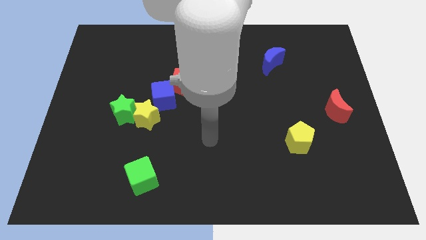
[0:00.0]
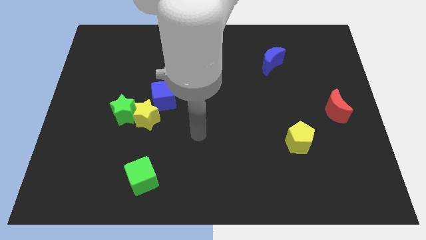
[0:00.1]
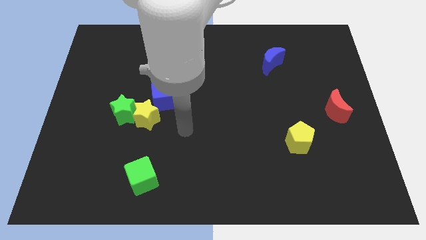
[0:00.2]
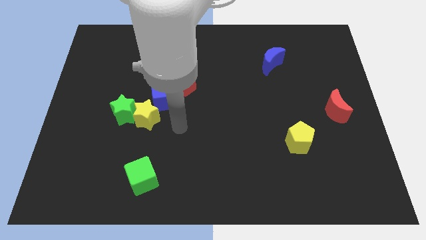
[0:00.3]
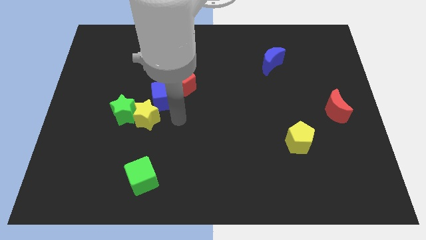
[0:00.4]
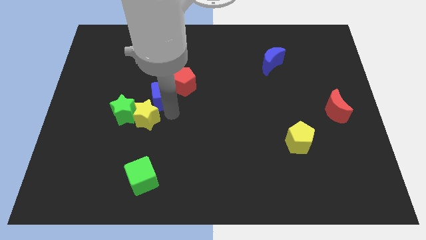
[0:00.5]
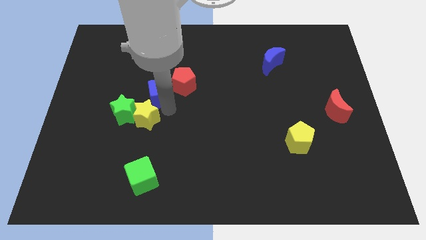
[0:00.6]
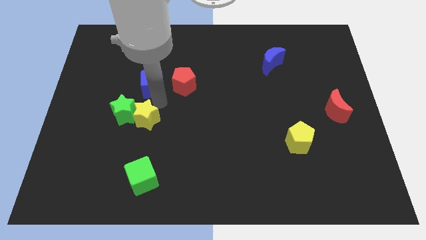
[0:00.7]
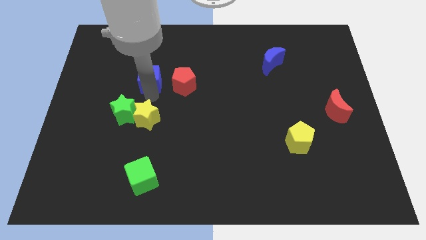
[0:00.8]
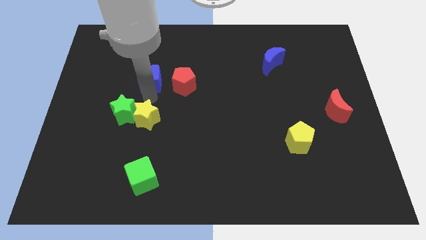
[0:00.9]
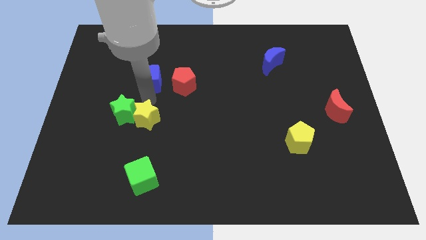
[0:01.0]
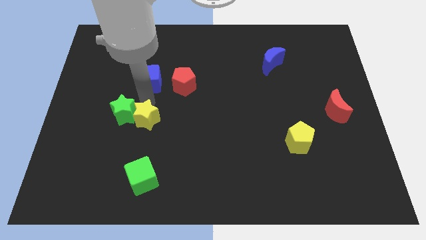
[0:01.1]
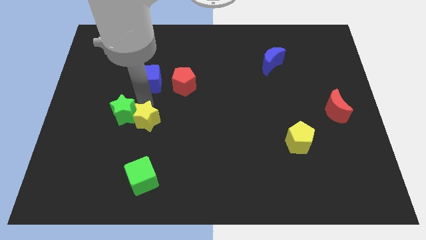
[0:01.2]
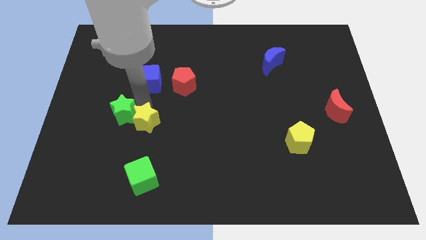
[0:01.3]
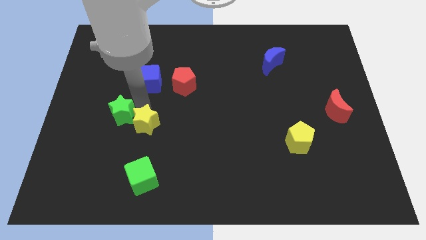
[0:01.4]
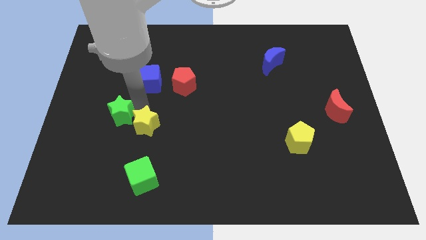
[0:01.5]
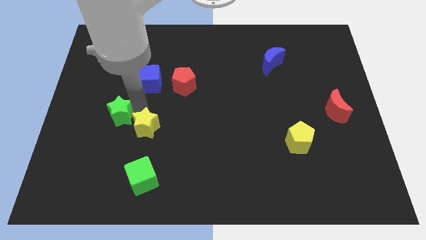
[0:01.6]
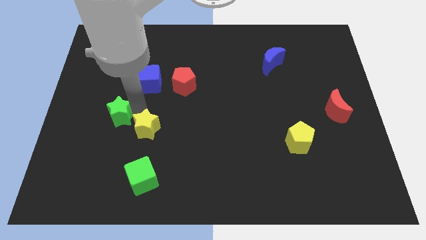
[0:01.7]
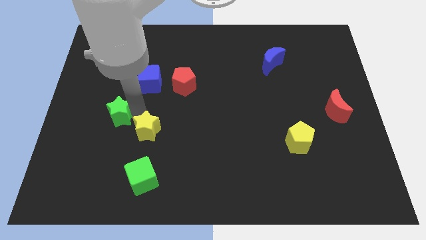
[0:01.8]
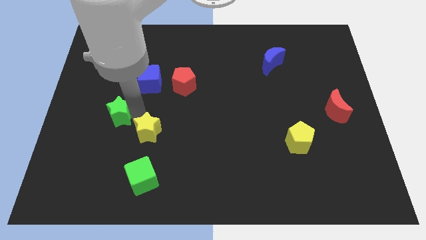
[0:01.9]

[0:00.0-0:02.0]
pull the yellow star apart from the green star and blue cube

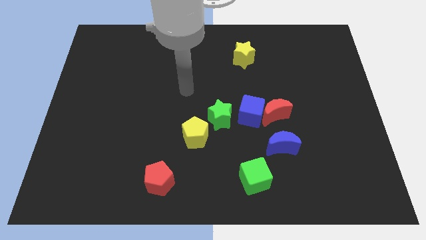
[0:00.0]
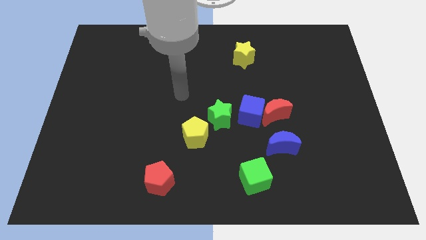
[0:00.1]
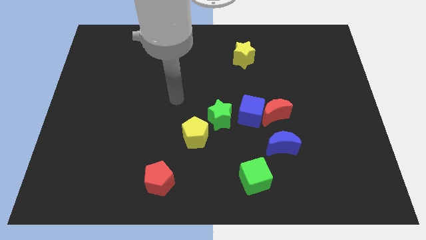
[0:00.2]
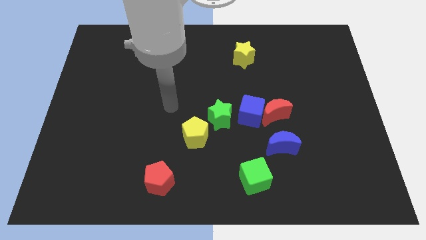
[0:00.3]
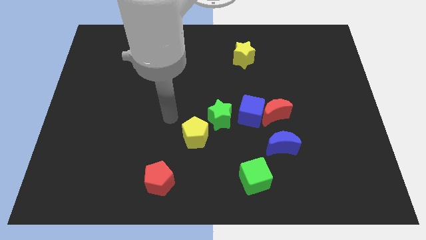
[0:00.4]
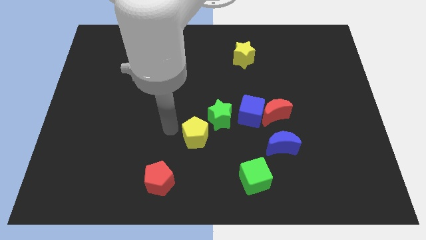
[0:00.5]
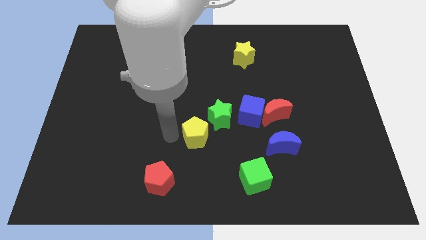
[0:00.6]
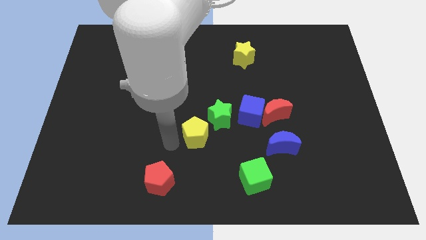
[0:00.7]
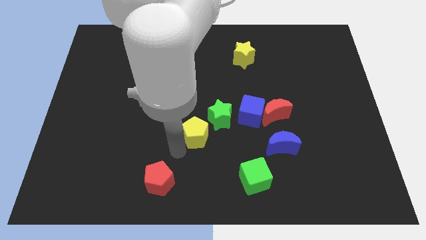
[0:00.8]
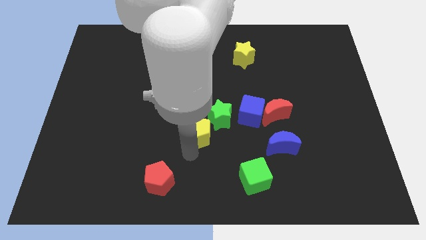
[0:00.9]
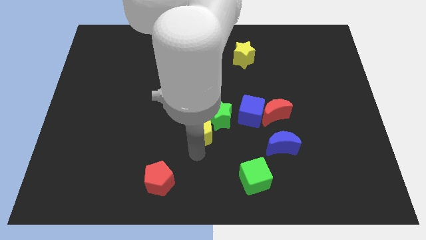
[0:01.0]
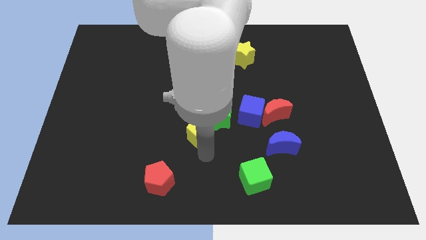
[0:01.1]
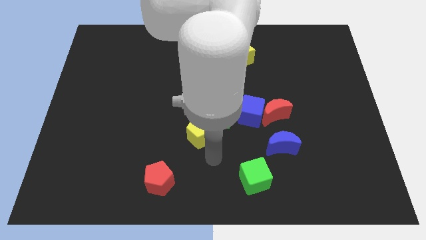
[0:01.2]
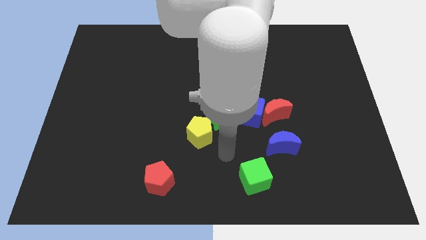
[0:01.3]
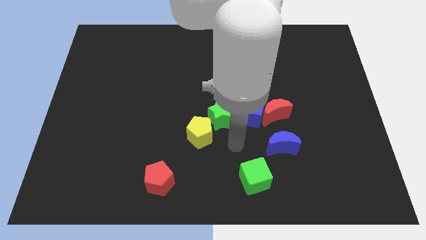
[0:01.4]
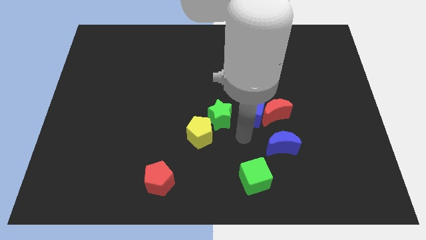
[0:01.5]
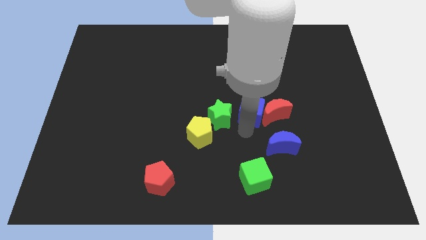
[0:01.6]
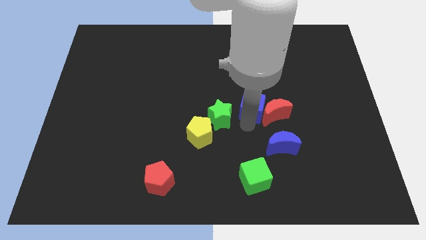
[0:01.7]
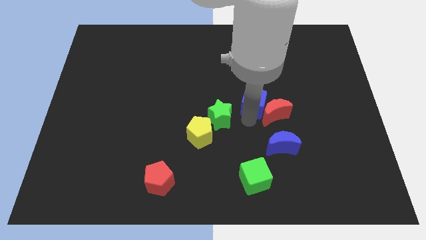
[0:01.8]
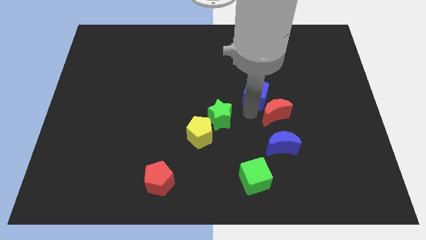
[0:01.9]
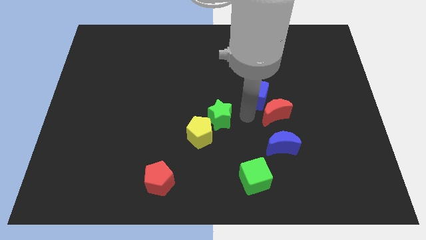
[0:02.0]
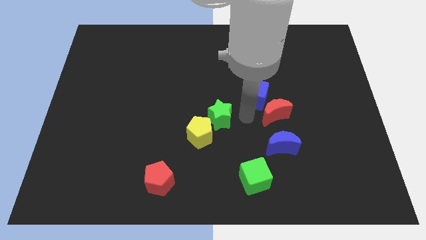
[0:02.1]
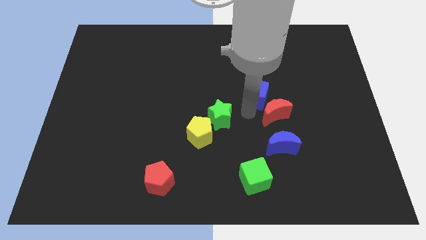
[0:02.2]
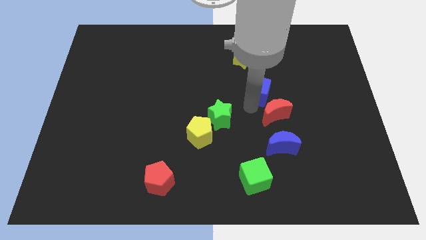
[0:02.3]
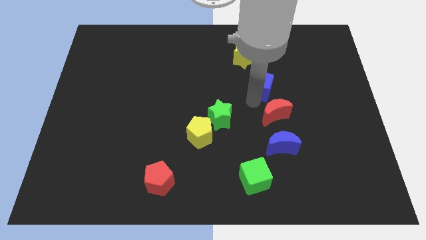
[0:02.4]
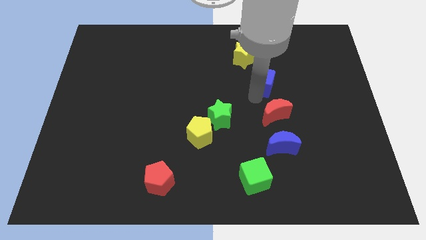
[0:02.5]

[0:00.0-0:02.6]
pull the blue cube apart from the red moon and green star

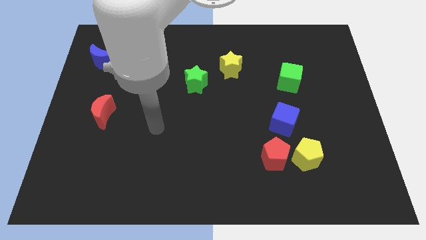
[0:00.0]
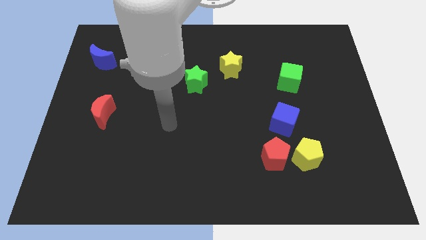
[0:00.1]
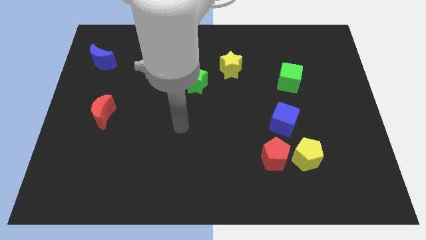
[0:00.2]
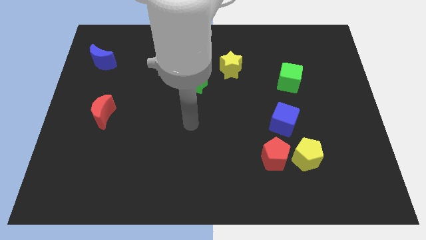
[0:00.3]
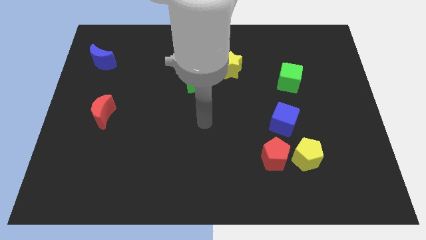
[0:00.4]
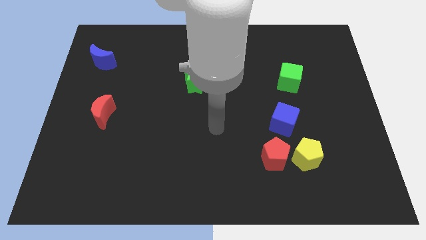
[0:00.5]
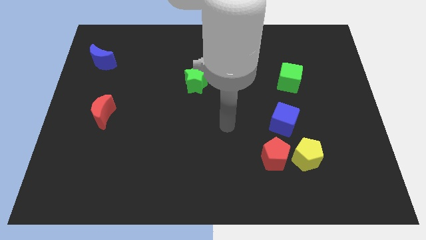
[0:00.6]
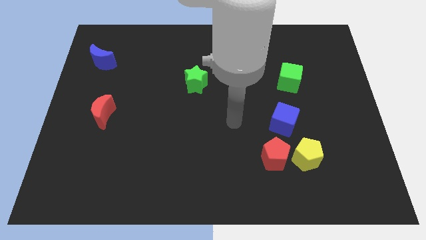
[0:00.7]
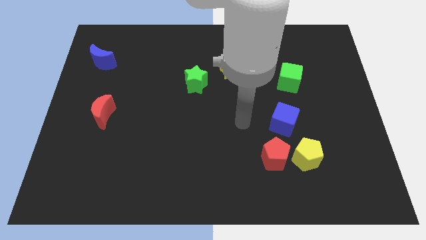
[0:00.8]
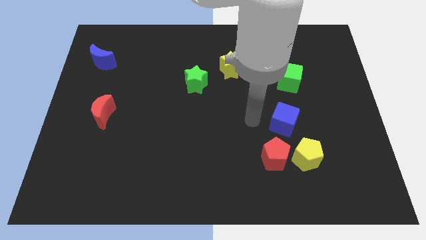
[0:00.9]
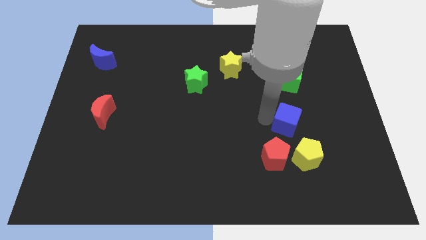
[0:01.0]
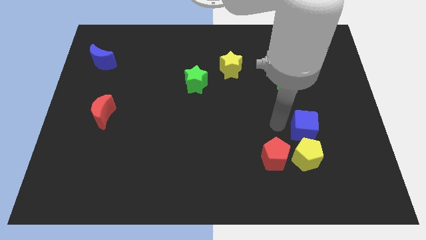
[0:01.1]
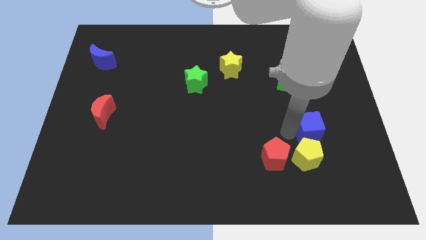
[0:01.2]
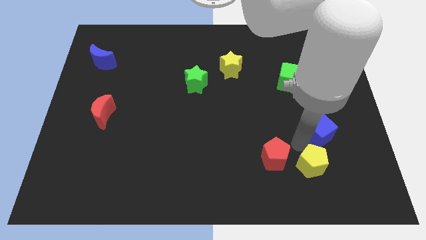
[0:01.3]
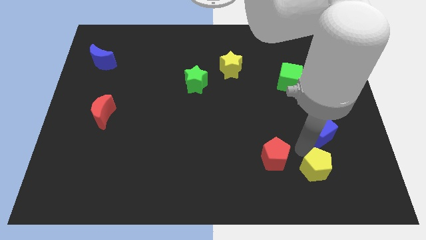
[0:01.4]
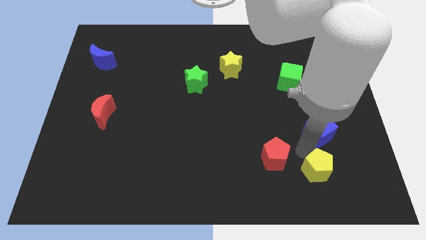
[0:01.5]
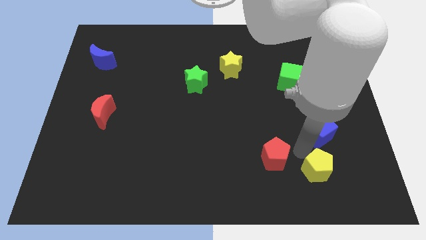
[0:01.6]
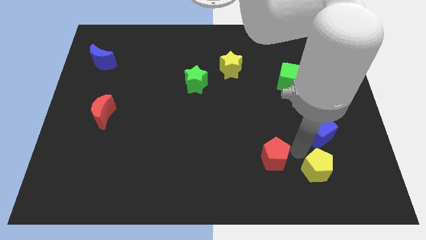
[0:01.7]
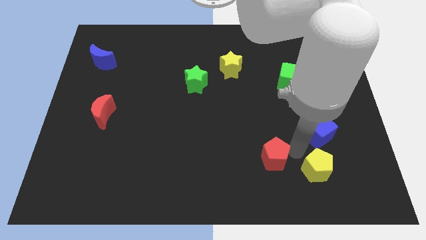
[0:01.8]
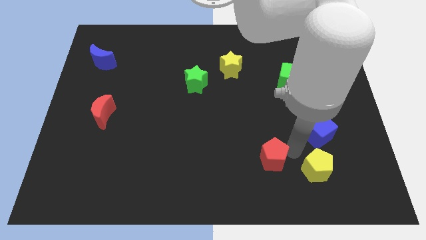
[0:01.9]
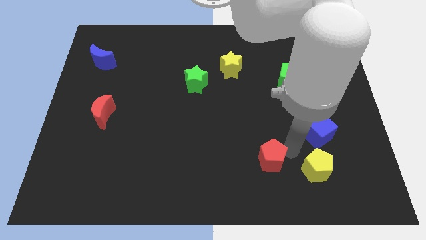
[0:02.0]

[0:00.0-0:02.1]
move the red pentagon away from the yellow pentagon and blue cube

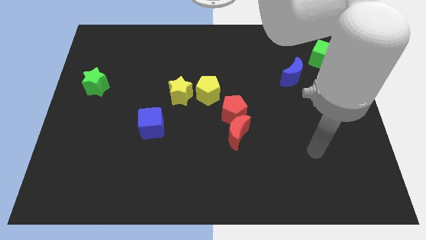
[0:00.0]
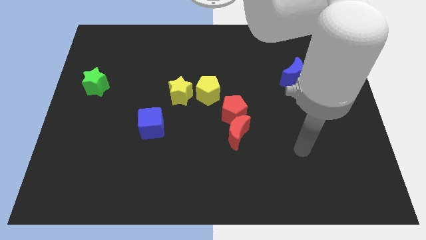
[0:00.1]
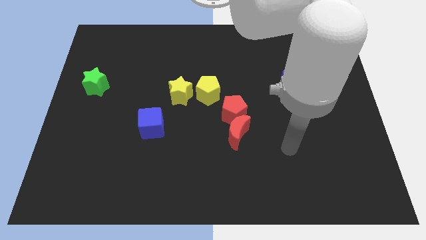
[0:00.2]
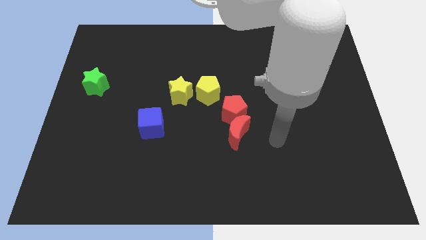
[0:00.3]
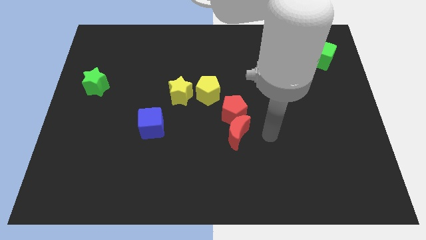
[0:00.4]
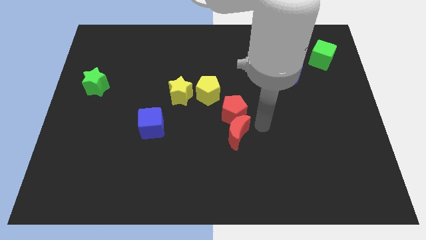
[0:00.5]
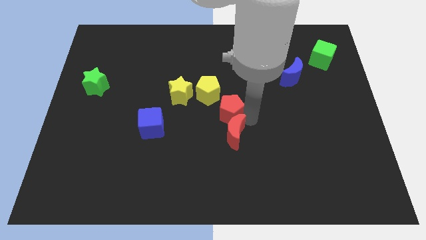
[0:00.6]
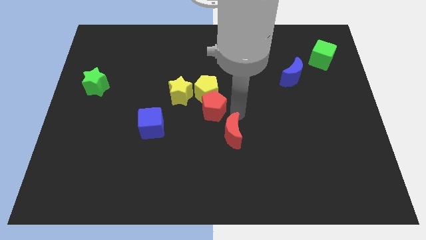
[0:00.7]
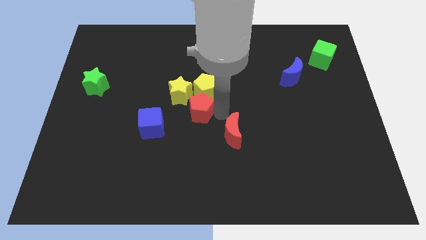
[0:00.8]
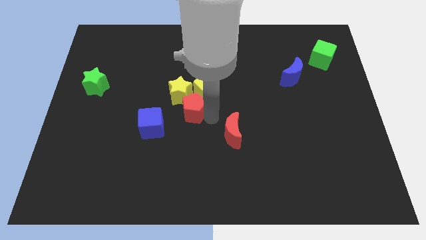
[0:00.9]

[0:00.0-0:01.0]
separate the red moon from the red pentagon

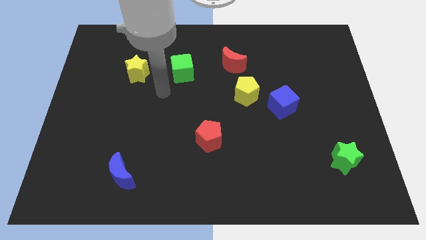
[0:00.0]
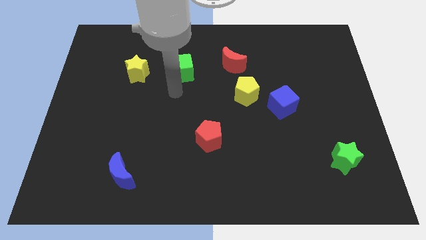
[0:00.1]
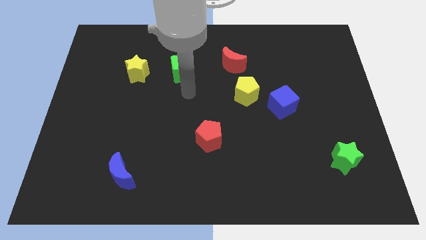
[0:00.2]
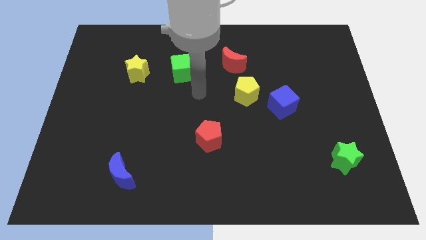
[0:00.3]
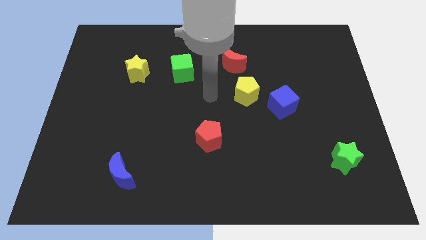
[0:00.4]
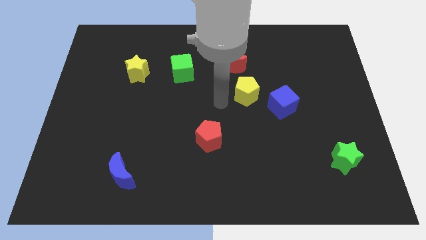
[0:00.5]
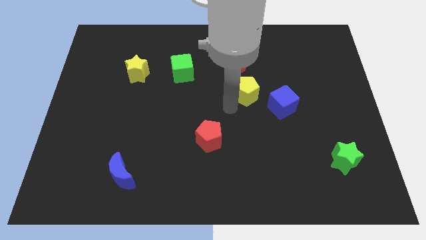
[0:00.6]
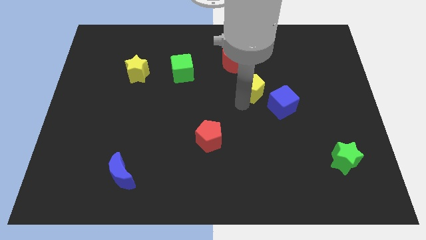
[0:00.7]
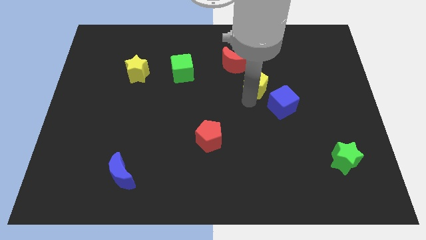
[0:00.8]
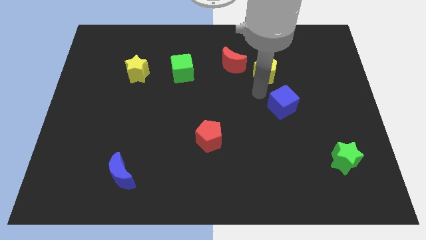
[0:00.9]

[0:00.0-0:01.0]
pull the blue cube apart from the yellow pentagon

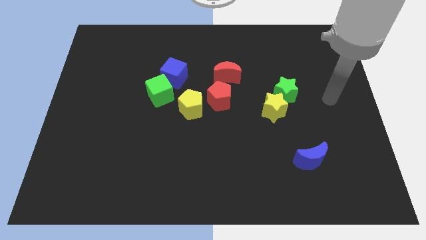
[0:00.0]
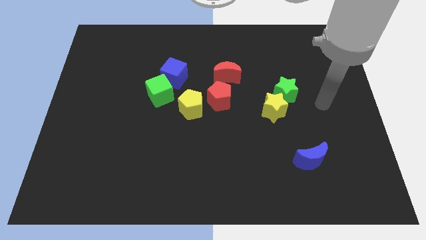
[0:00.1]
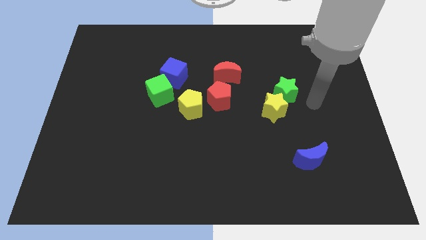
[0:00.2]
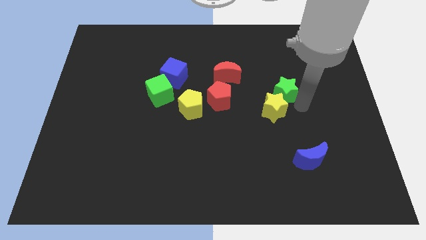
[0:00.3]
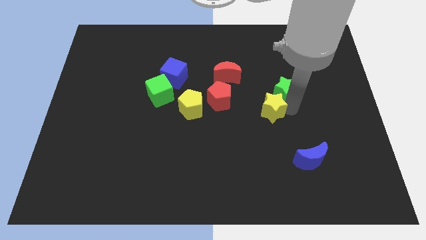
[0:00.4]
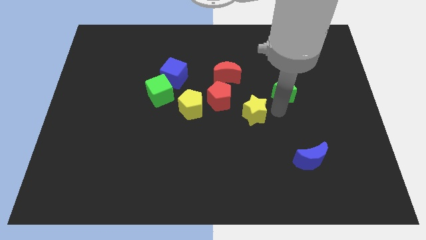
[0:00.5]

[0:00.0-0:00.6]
pull the green star apart from the yellow star
